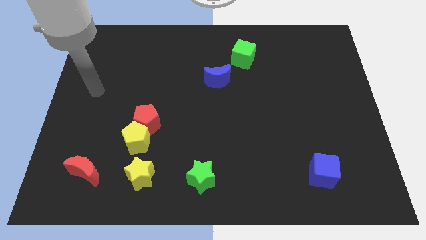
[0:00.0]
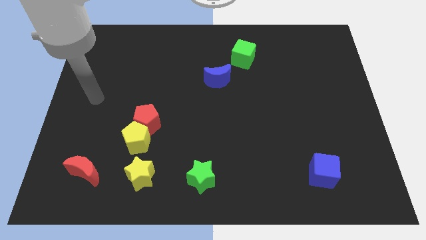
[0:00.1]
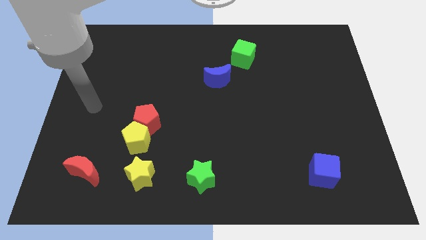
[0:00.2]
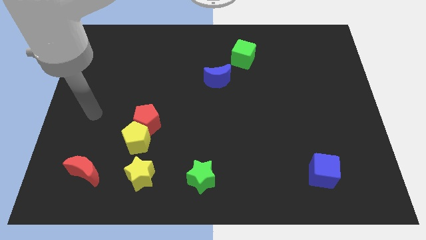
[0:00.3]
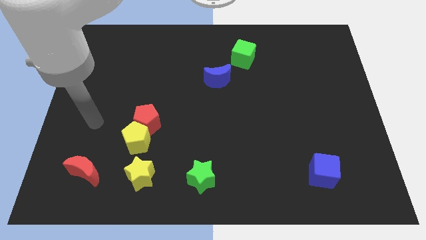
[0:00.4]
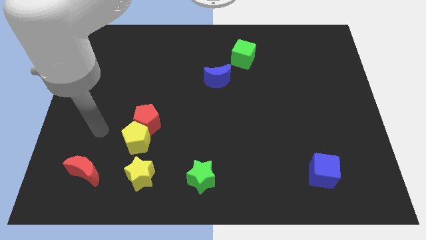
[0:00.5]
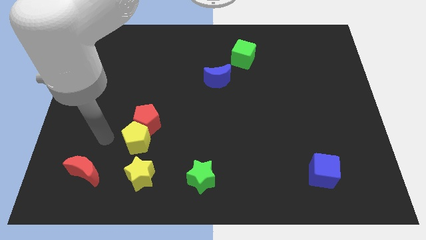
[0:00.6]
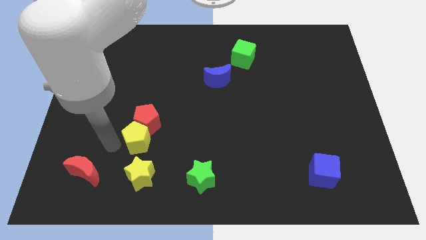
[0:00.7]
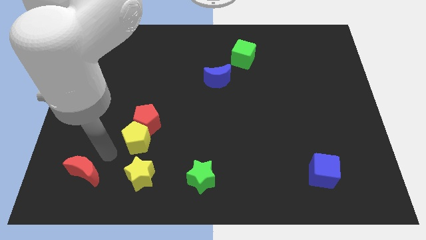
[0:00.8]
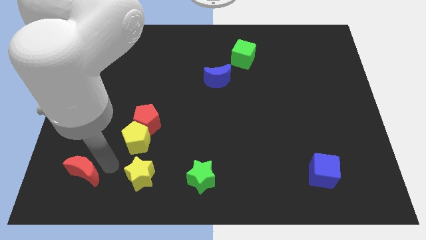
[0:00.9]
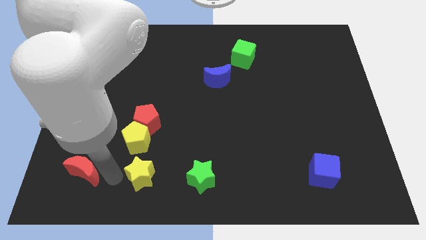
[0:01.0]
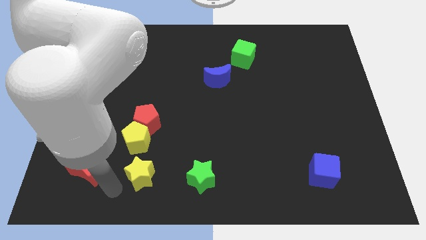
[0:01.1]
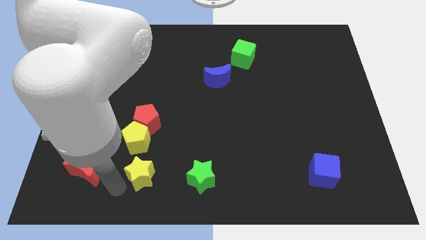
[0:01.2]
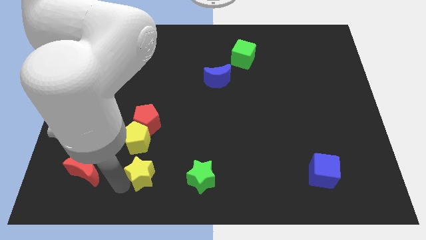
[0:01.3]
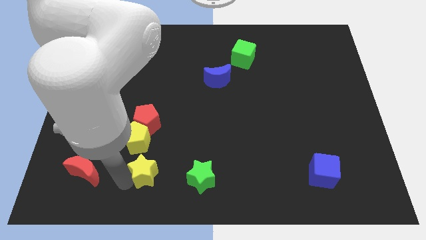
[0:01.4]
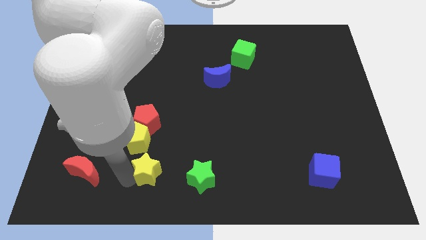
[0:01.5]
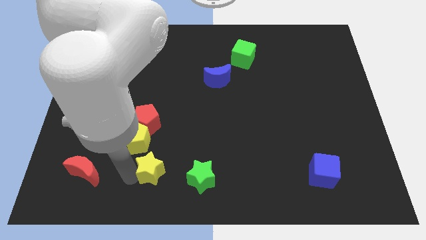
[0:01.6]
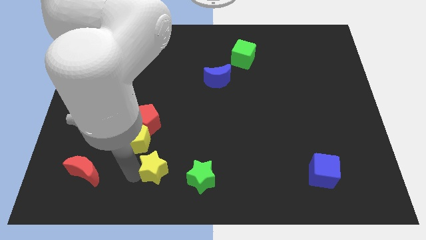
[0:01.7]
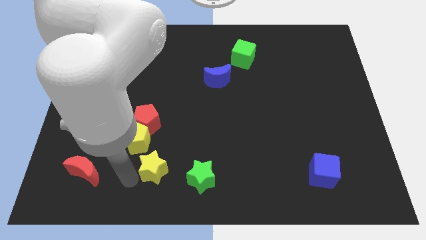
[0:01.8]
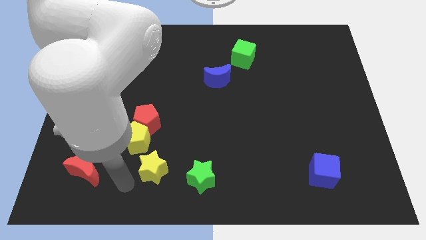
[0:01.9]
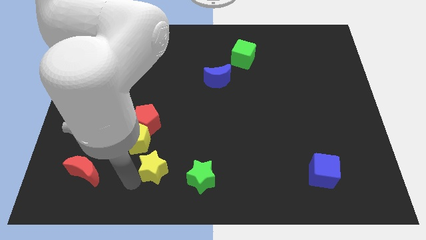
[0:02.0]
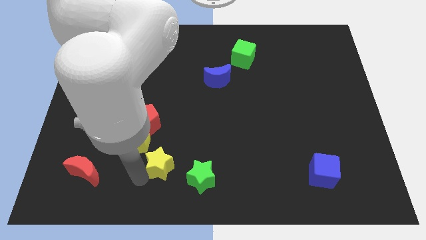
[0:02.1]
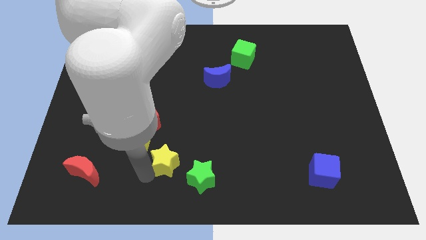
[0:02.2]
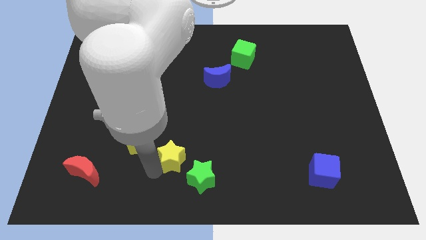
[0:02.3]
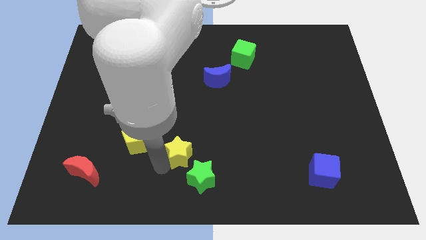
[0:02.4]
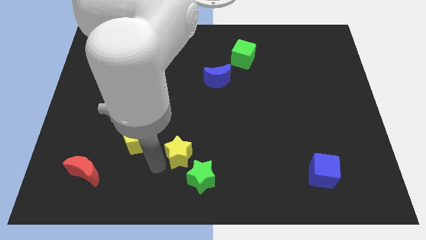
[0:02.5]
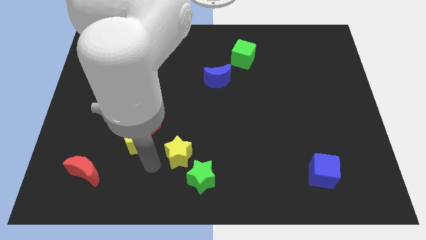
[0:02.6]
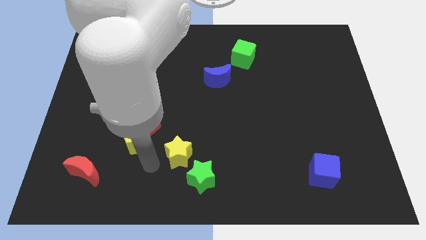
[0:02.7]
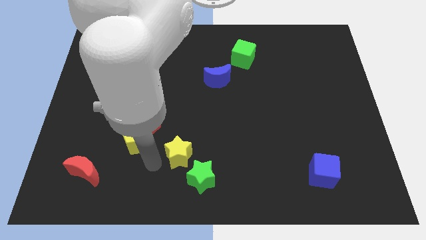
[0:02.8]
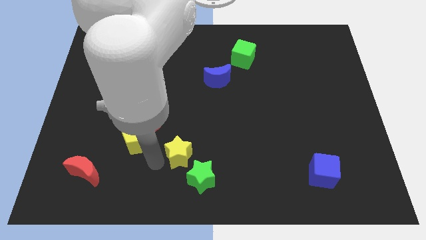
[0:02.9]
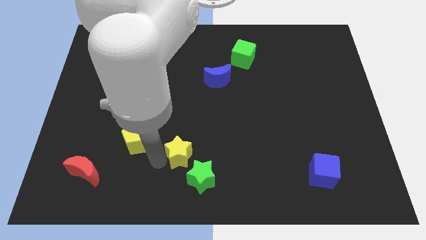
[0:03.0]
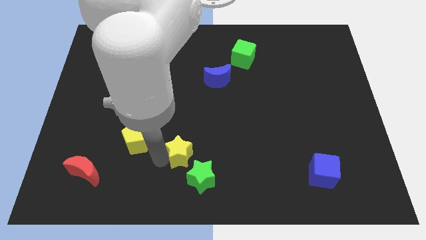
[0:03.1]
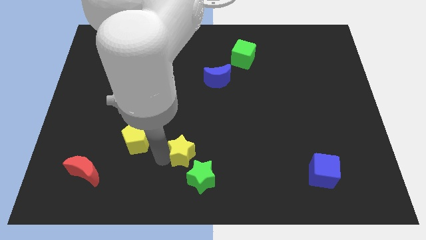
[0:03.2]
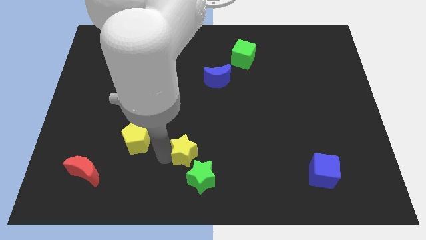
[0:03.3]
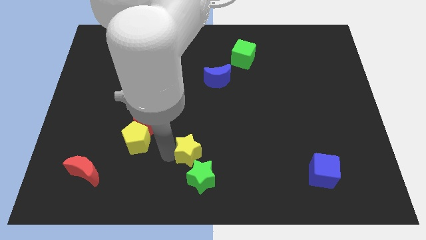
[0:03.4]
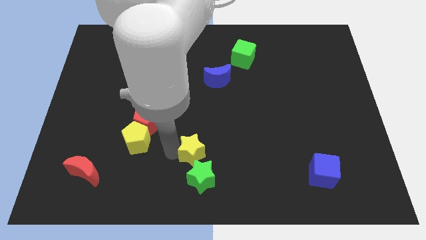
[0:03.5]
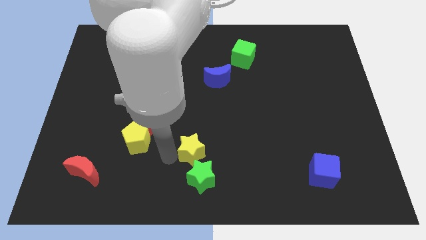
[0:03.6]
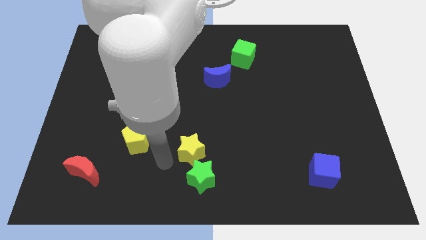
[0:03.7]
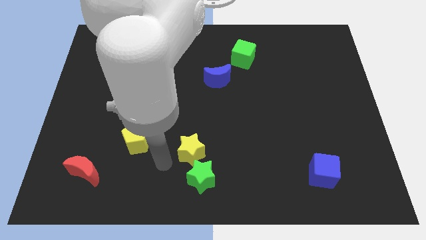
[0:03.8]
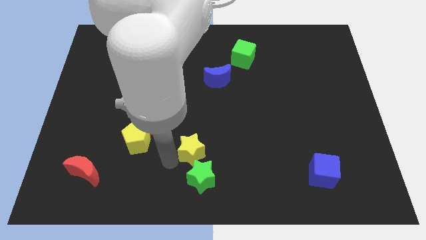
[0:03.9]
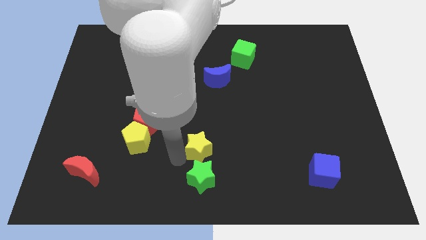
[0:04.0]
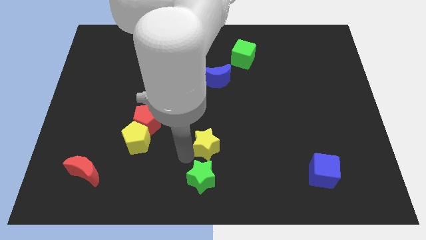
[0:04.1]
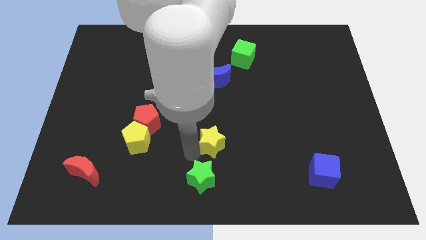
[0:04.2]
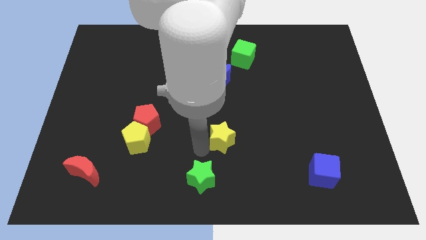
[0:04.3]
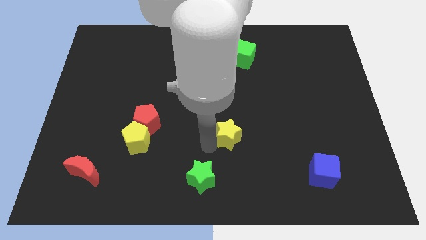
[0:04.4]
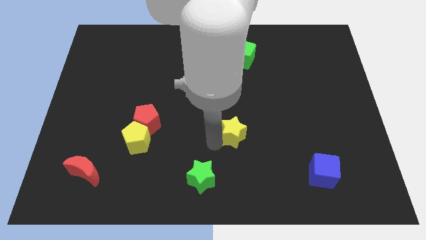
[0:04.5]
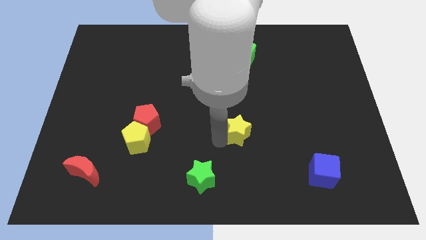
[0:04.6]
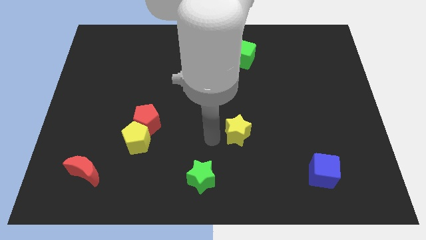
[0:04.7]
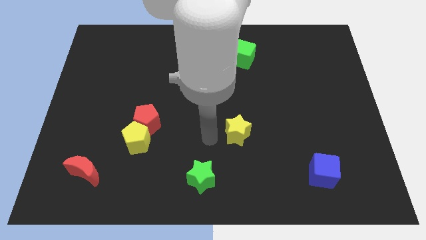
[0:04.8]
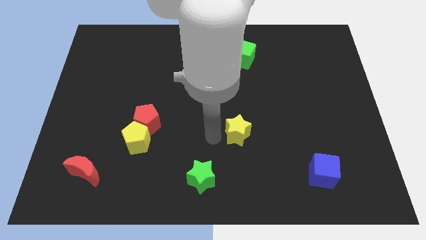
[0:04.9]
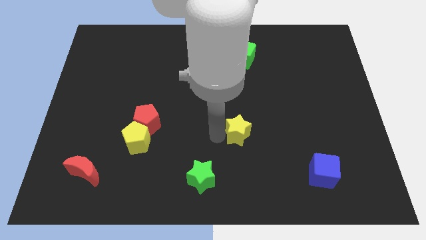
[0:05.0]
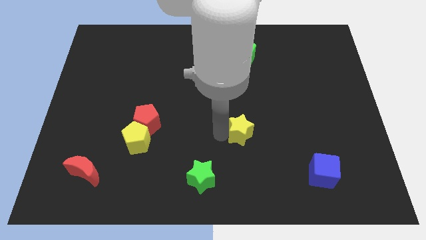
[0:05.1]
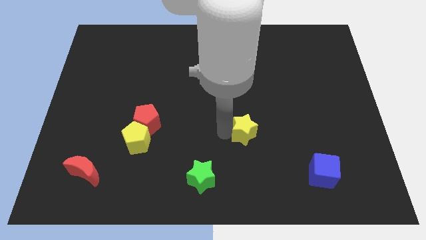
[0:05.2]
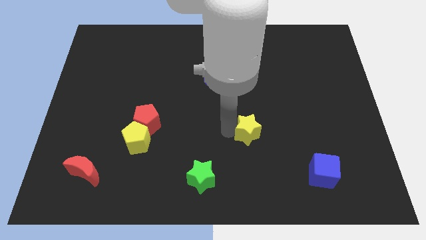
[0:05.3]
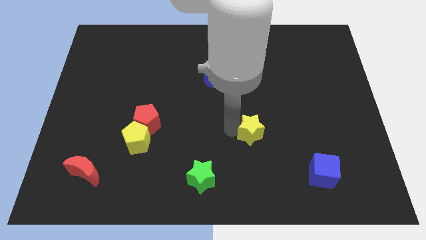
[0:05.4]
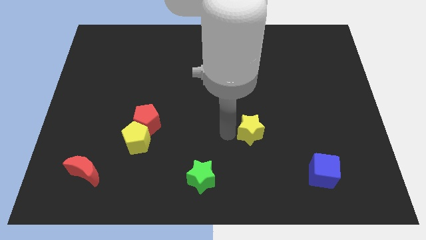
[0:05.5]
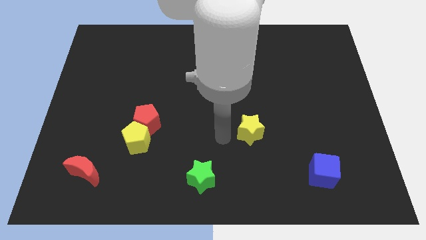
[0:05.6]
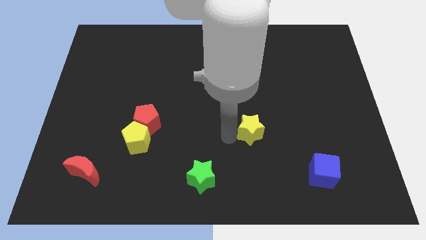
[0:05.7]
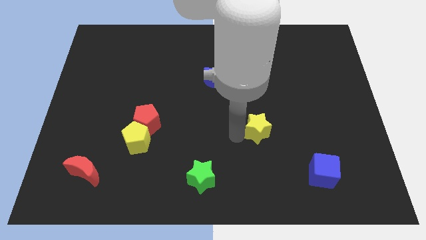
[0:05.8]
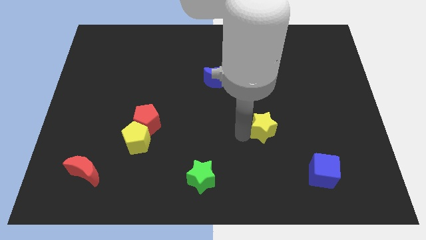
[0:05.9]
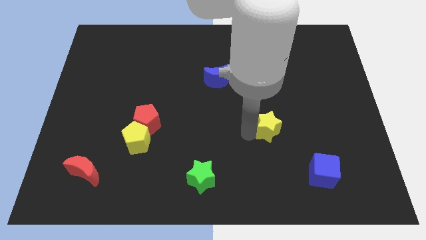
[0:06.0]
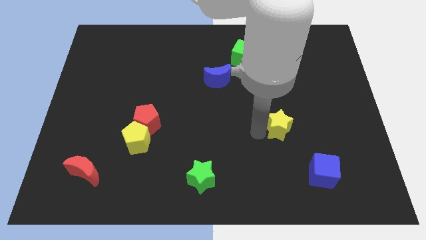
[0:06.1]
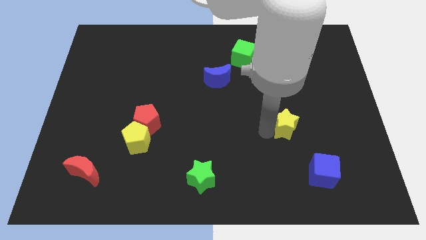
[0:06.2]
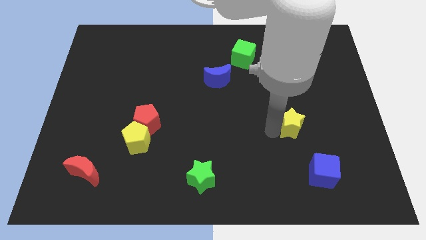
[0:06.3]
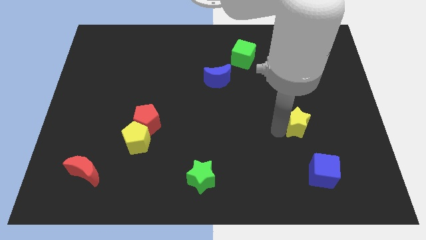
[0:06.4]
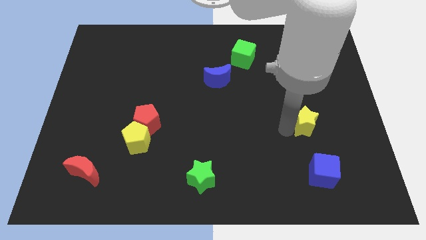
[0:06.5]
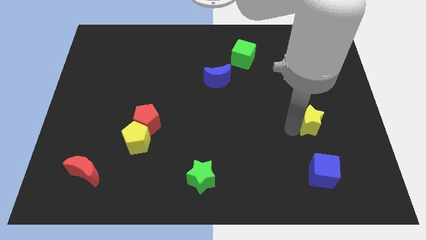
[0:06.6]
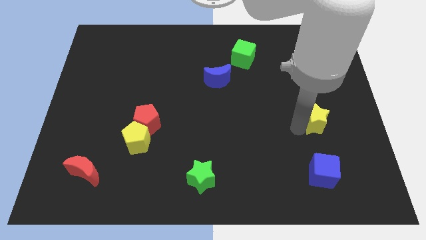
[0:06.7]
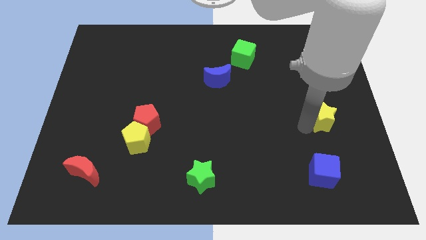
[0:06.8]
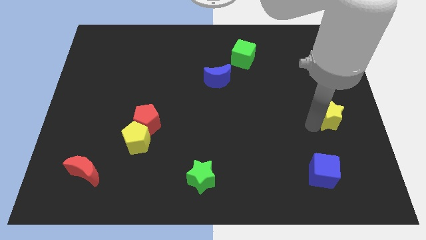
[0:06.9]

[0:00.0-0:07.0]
push the yellow star to the right side
